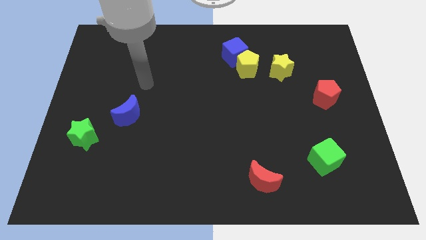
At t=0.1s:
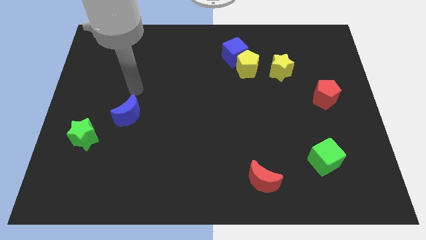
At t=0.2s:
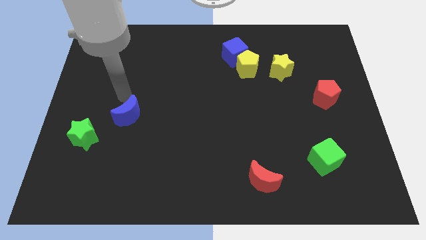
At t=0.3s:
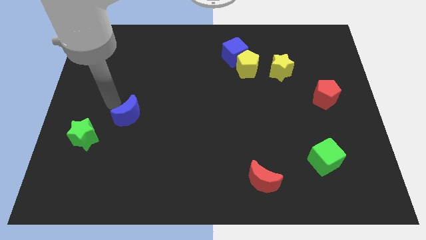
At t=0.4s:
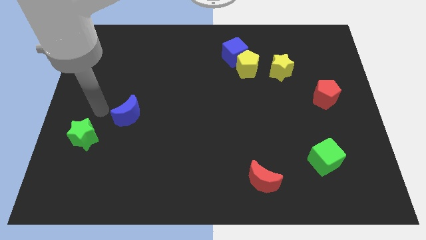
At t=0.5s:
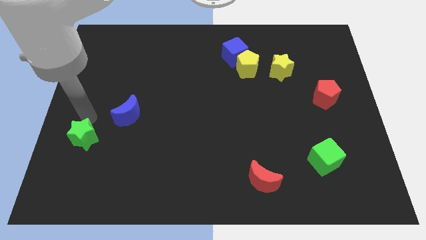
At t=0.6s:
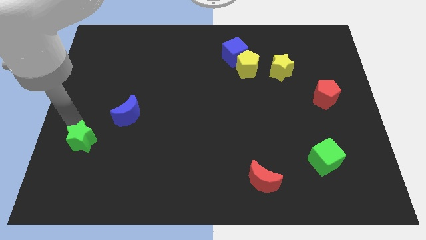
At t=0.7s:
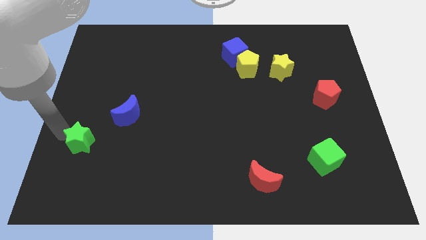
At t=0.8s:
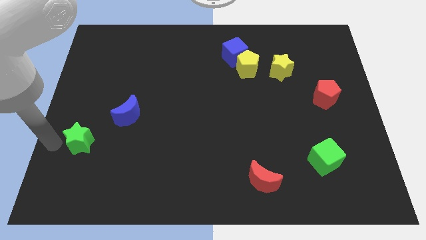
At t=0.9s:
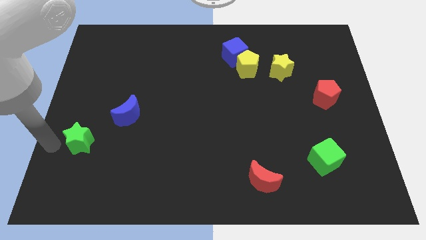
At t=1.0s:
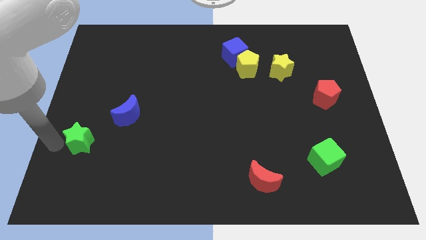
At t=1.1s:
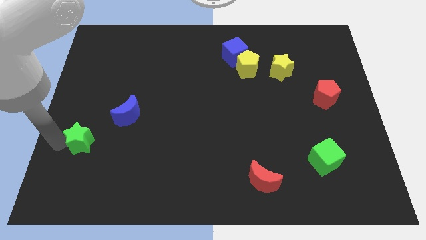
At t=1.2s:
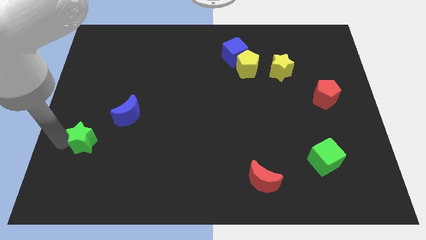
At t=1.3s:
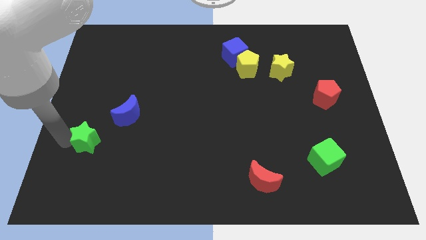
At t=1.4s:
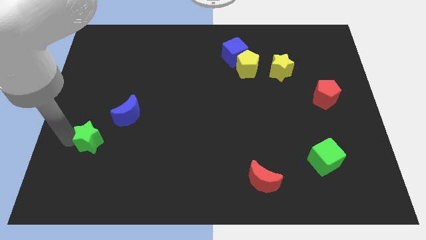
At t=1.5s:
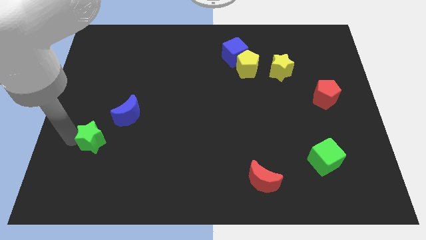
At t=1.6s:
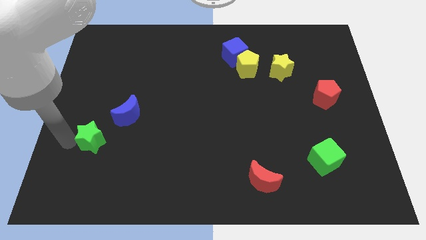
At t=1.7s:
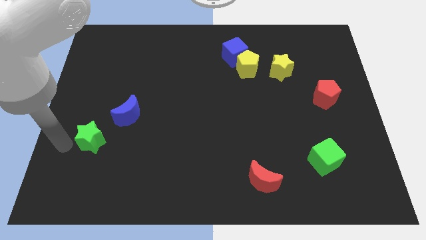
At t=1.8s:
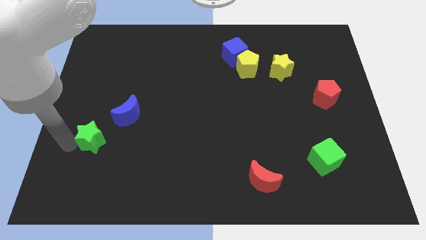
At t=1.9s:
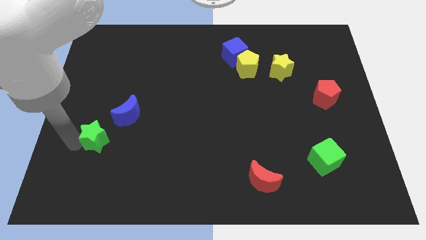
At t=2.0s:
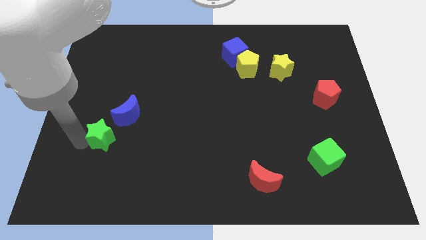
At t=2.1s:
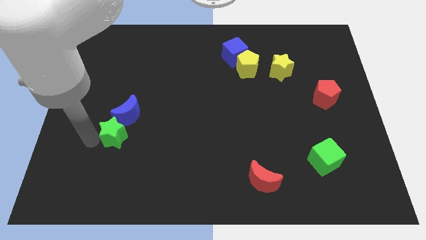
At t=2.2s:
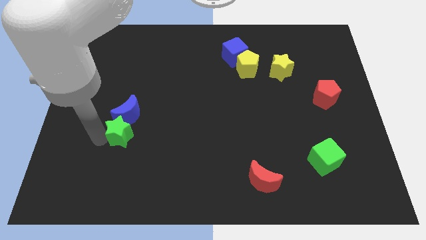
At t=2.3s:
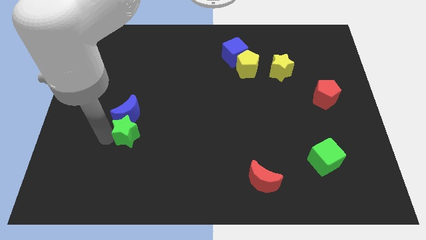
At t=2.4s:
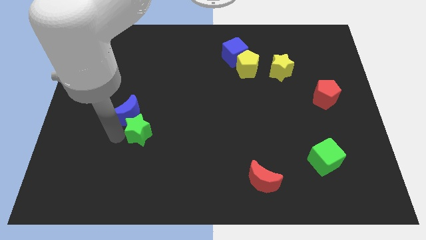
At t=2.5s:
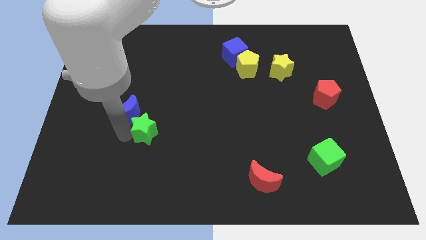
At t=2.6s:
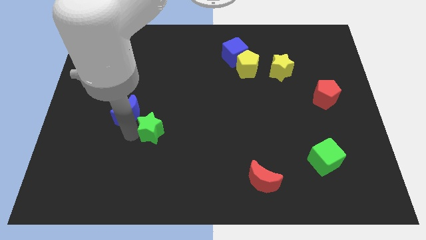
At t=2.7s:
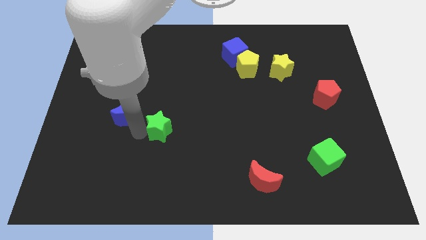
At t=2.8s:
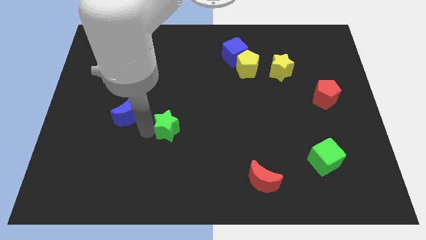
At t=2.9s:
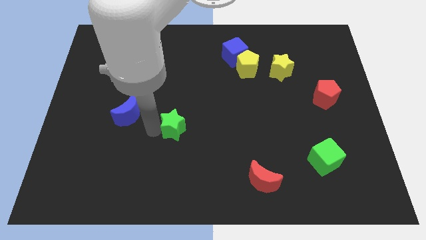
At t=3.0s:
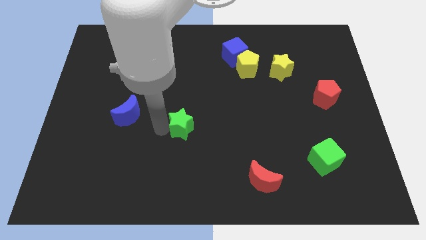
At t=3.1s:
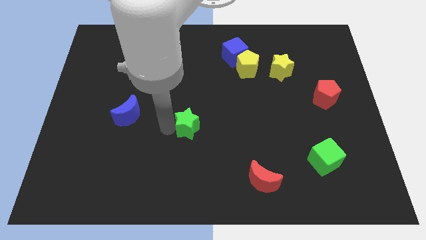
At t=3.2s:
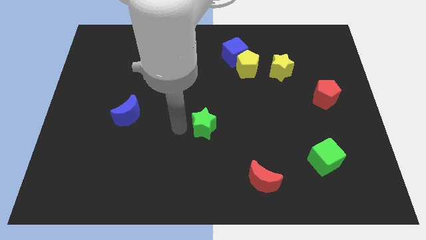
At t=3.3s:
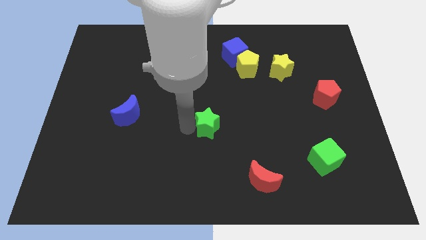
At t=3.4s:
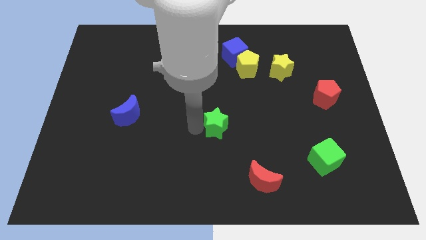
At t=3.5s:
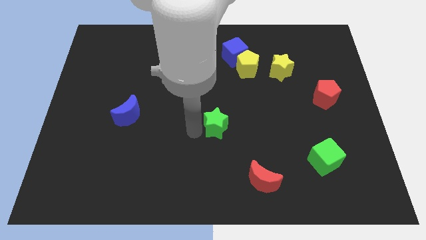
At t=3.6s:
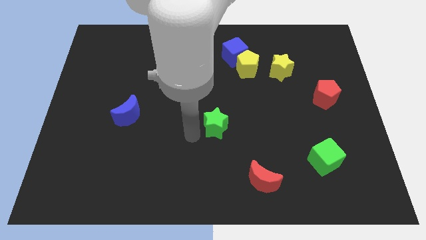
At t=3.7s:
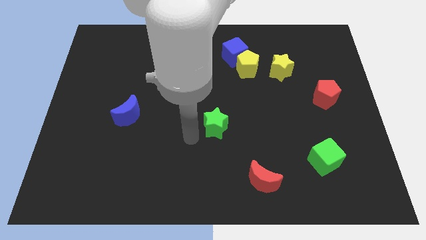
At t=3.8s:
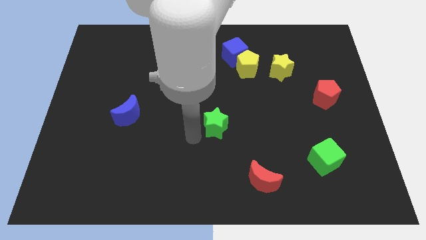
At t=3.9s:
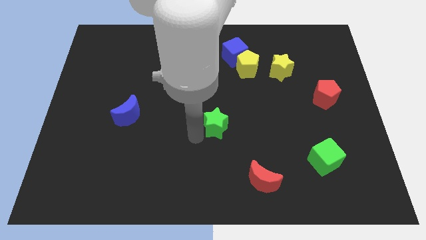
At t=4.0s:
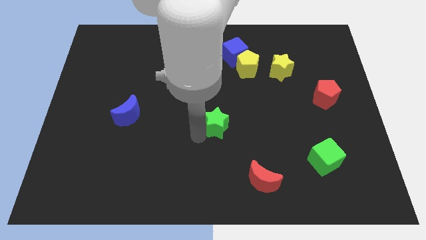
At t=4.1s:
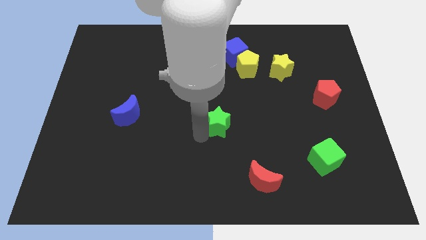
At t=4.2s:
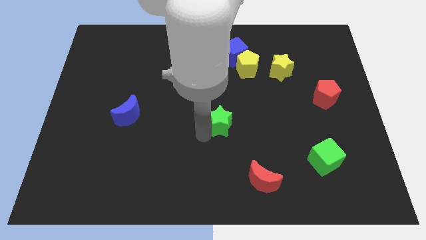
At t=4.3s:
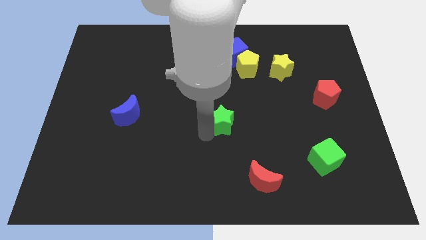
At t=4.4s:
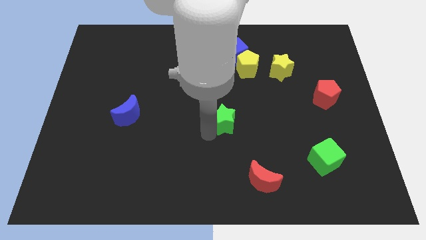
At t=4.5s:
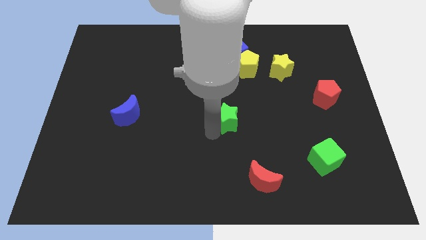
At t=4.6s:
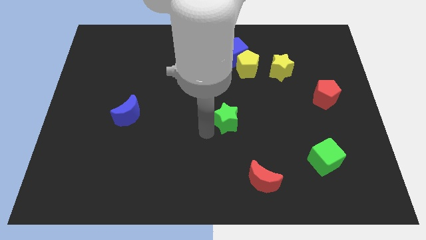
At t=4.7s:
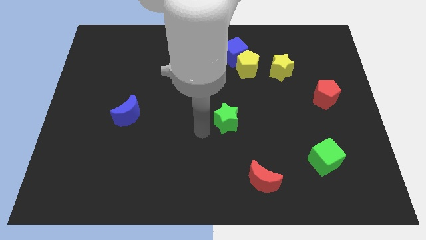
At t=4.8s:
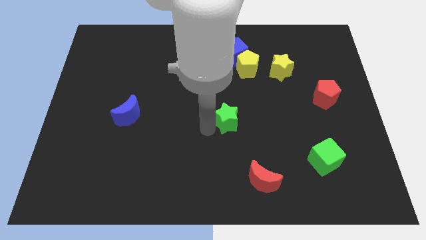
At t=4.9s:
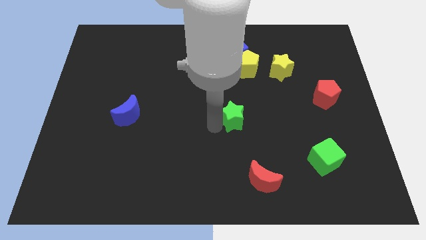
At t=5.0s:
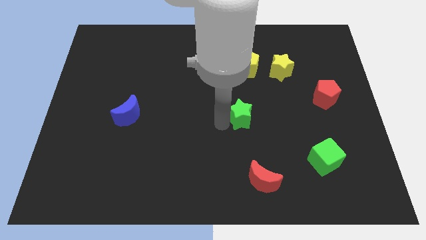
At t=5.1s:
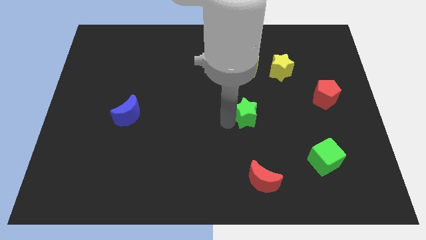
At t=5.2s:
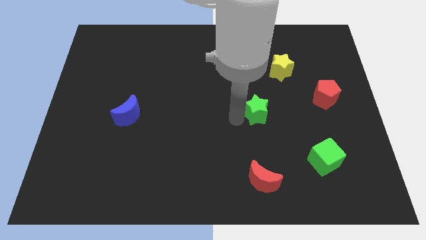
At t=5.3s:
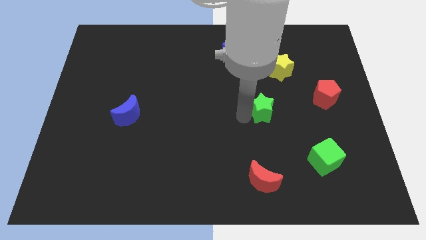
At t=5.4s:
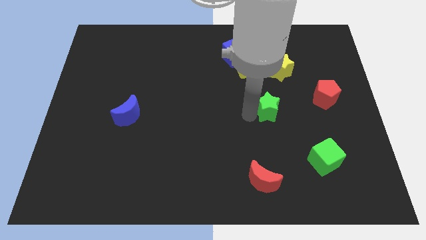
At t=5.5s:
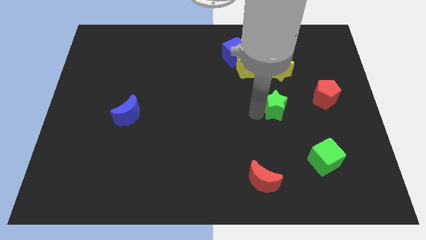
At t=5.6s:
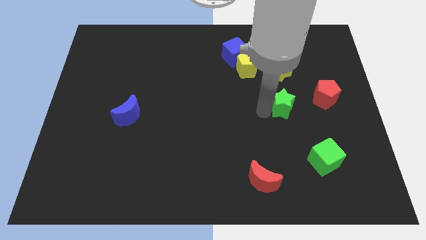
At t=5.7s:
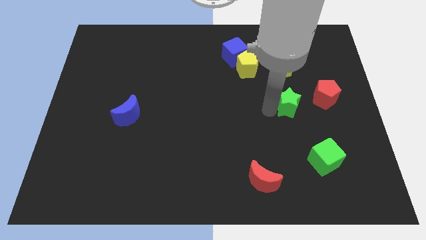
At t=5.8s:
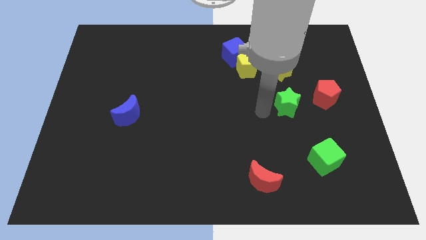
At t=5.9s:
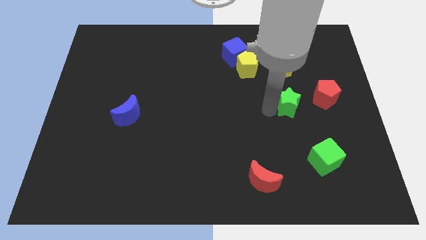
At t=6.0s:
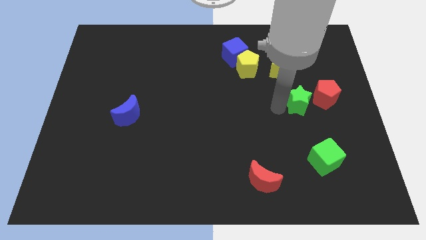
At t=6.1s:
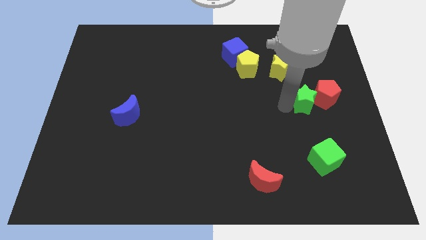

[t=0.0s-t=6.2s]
put the green star to the red pentagon

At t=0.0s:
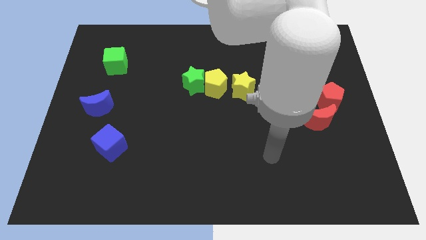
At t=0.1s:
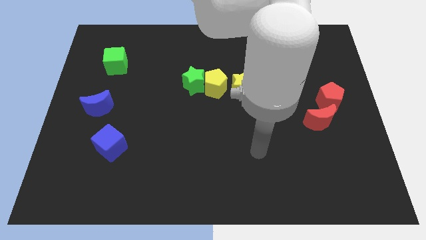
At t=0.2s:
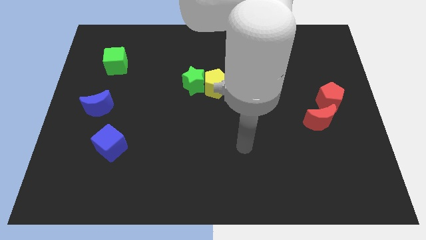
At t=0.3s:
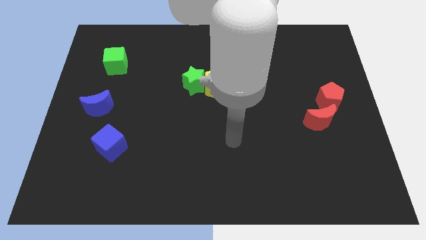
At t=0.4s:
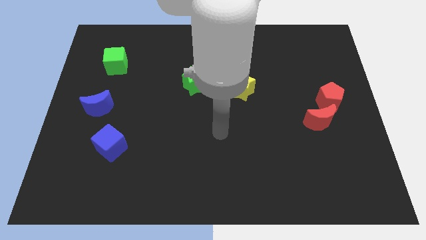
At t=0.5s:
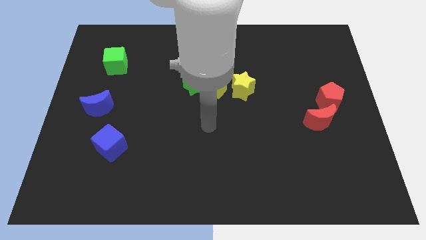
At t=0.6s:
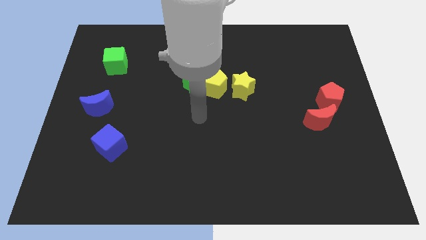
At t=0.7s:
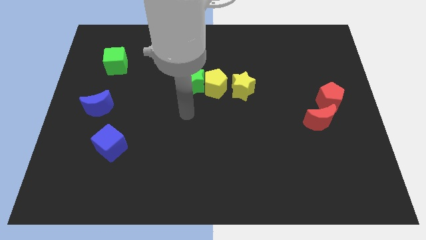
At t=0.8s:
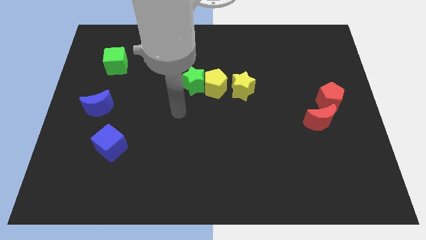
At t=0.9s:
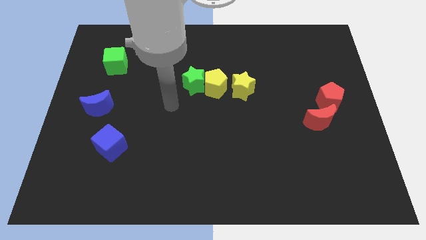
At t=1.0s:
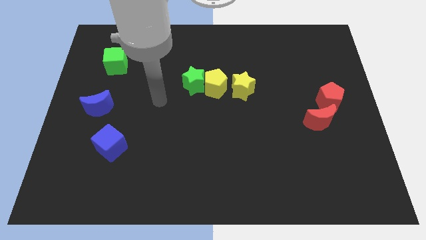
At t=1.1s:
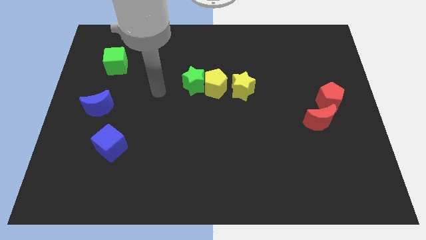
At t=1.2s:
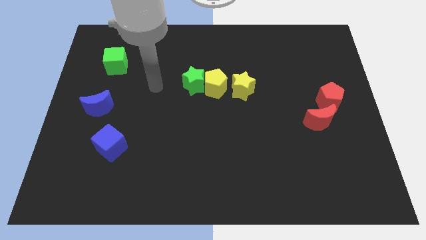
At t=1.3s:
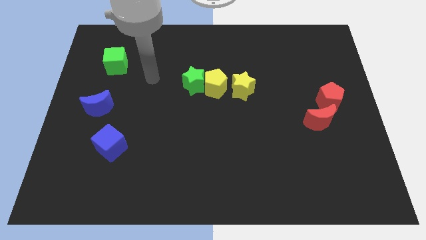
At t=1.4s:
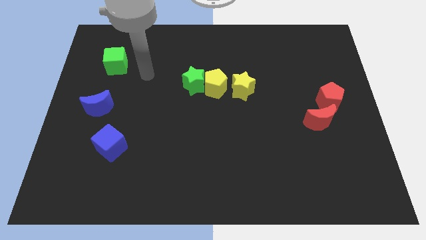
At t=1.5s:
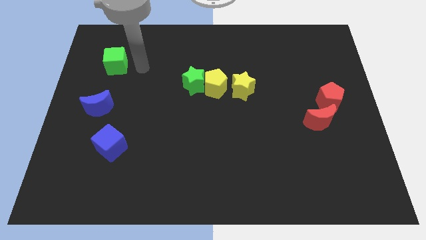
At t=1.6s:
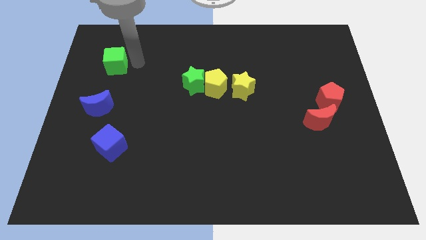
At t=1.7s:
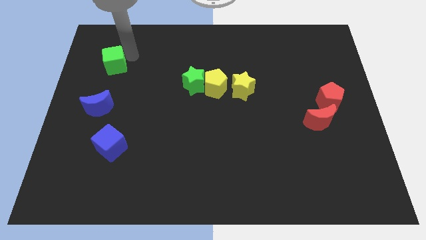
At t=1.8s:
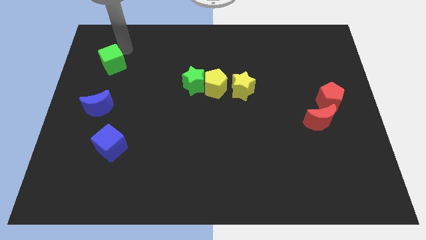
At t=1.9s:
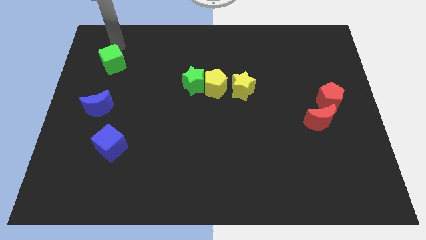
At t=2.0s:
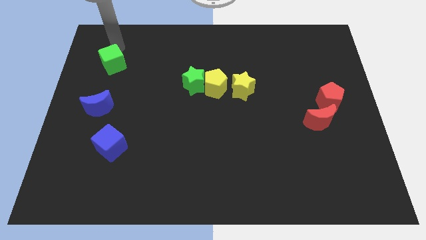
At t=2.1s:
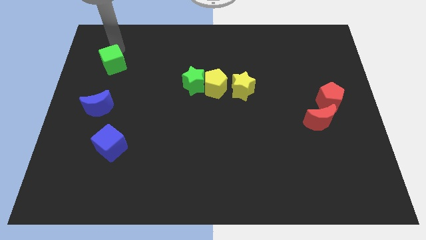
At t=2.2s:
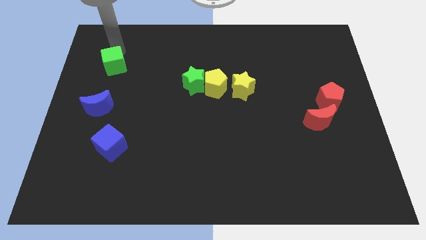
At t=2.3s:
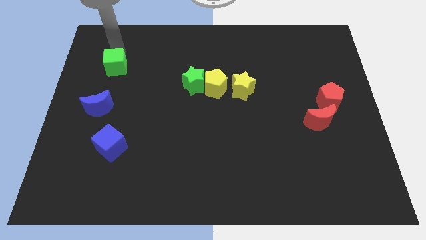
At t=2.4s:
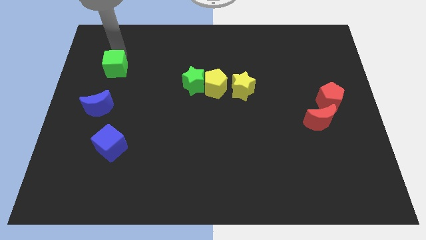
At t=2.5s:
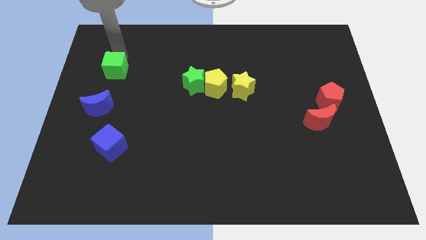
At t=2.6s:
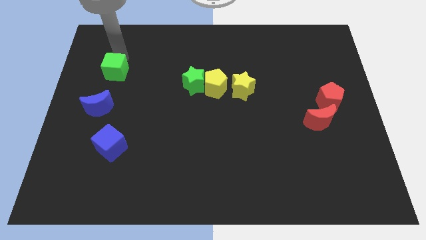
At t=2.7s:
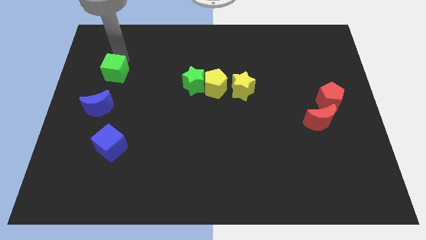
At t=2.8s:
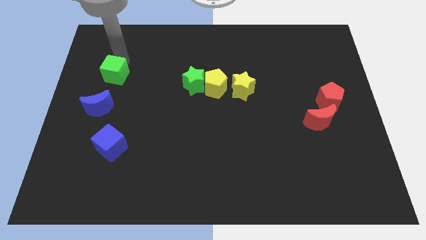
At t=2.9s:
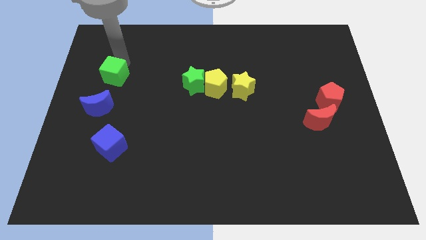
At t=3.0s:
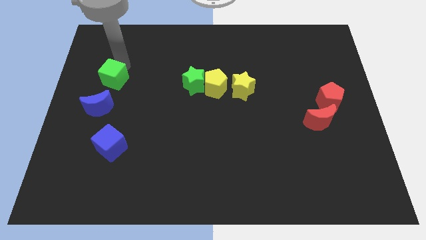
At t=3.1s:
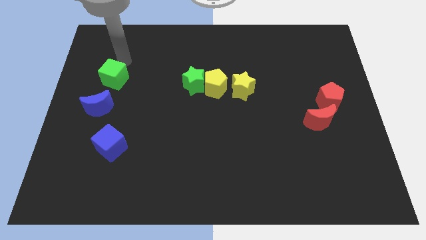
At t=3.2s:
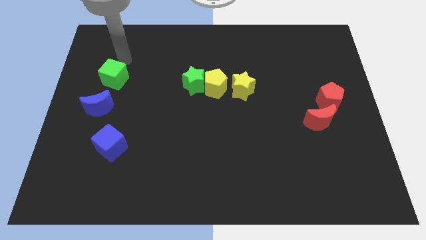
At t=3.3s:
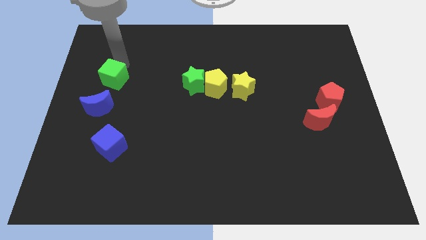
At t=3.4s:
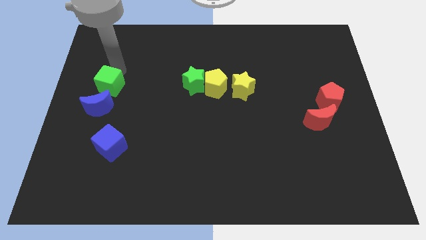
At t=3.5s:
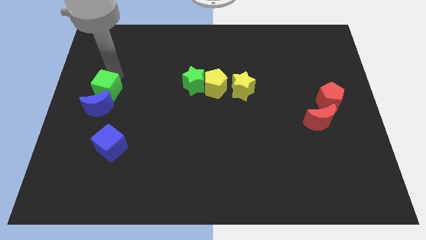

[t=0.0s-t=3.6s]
move the green cube towards the blue moon
